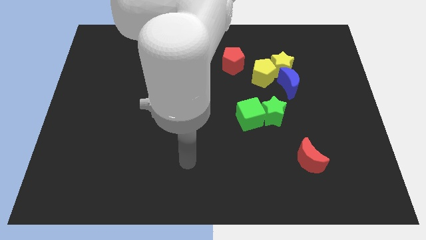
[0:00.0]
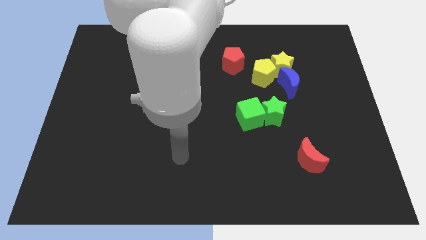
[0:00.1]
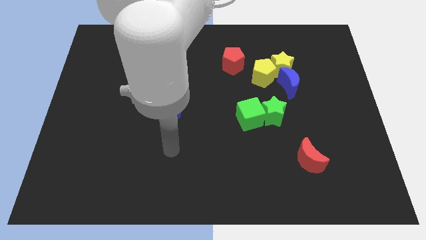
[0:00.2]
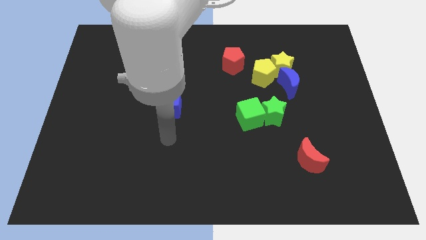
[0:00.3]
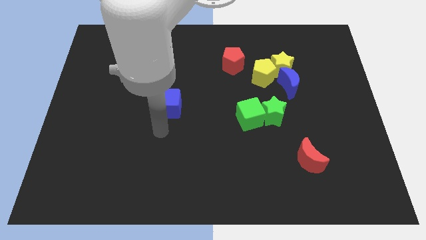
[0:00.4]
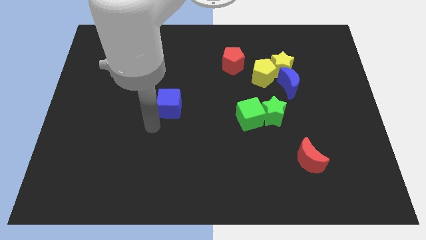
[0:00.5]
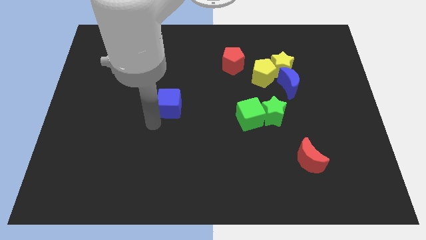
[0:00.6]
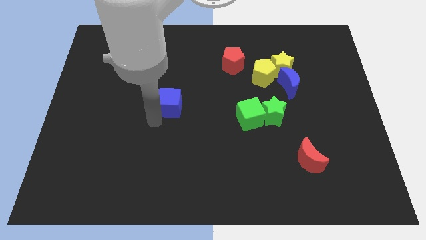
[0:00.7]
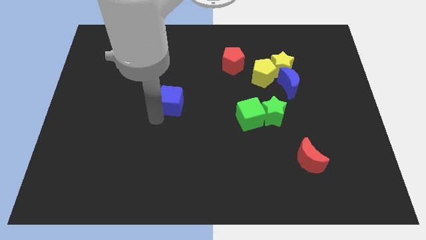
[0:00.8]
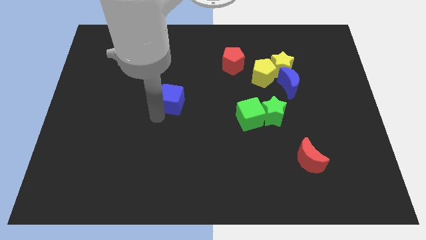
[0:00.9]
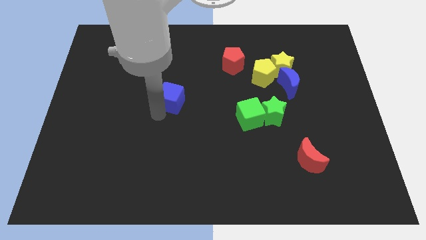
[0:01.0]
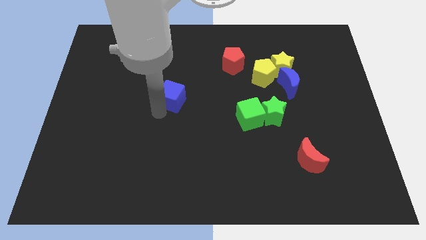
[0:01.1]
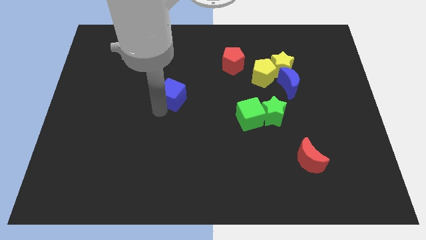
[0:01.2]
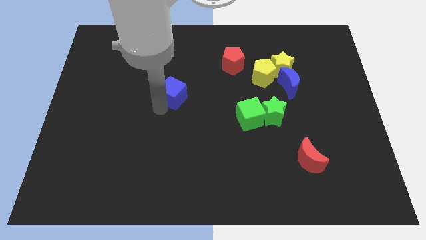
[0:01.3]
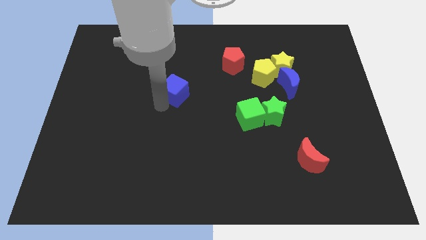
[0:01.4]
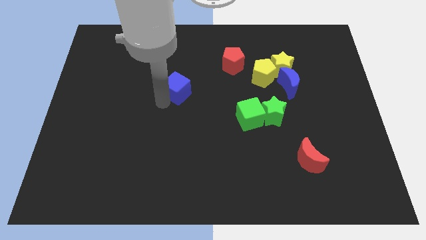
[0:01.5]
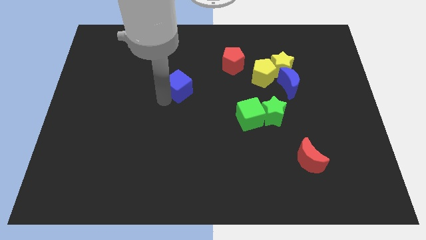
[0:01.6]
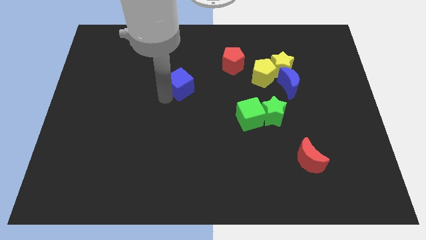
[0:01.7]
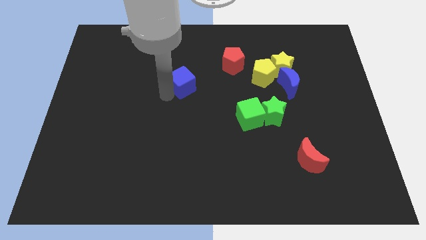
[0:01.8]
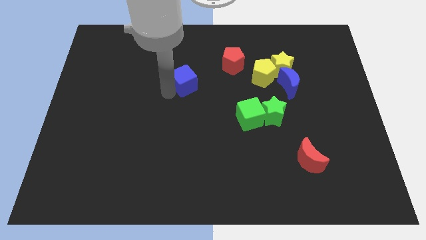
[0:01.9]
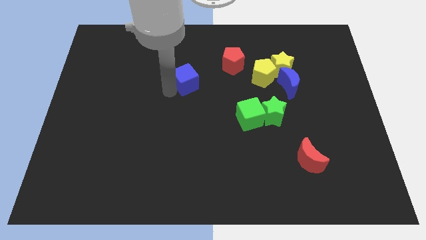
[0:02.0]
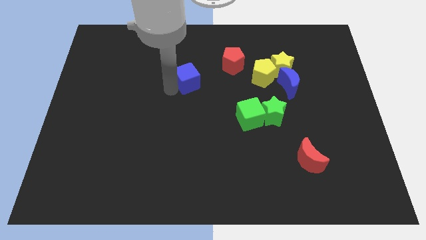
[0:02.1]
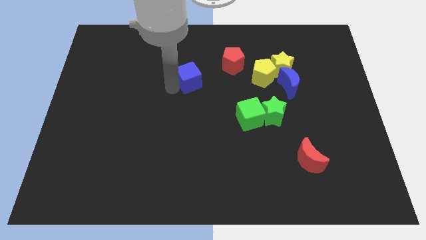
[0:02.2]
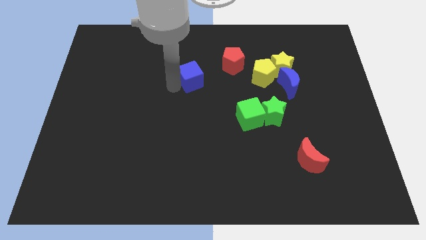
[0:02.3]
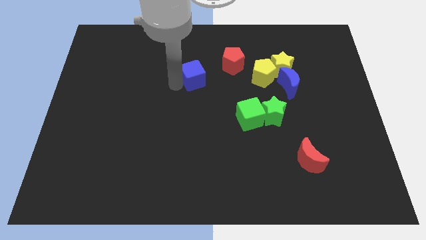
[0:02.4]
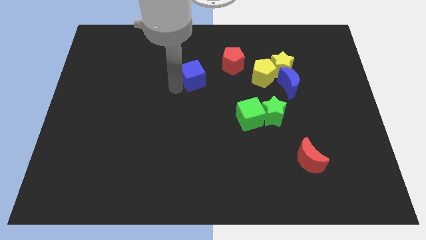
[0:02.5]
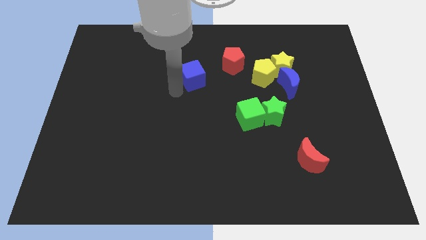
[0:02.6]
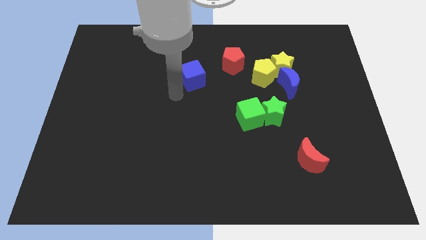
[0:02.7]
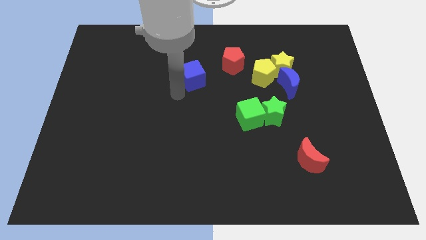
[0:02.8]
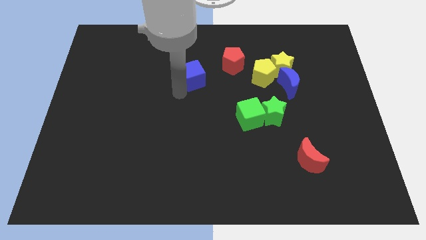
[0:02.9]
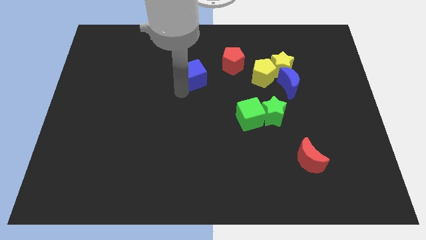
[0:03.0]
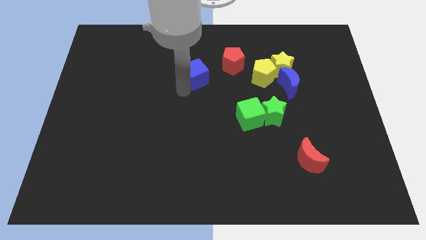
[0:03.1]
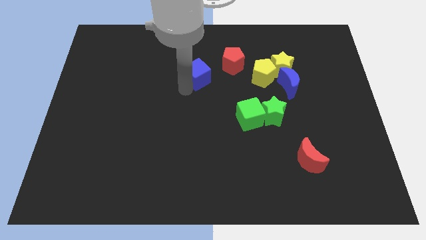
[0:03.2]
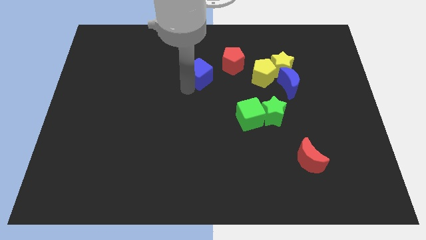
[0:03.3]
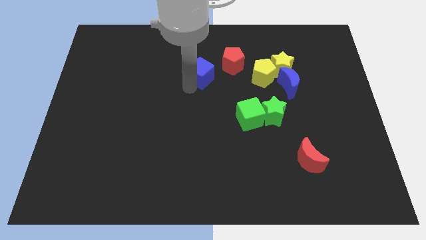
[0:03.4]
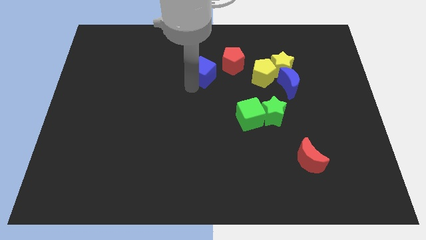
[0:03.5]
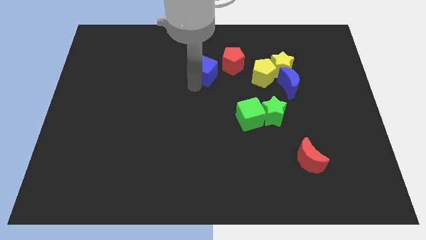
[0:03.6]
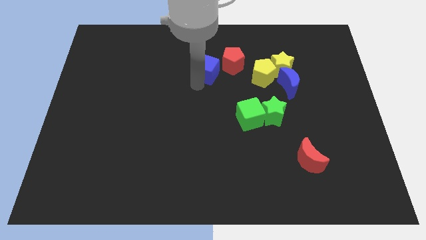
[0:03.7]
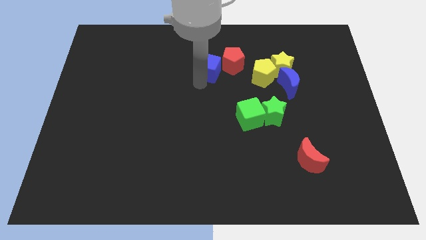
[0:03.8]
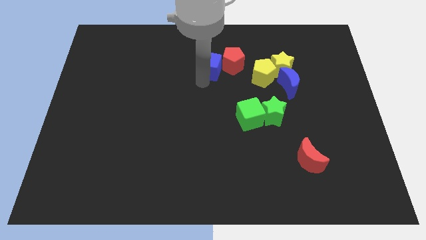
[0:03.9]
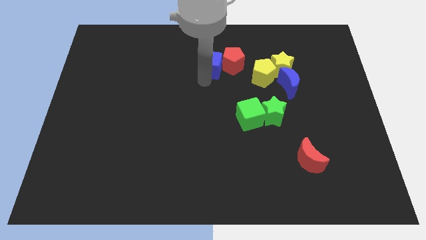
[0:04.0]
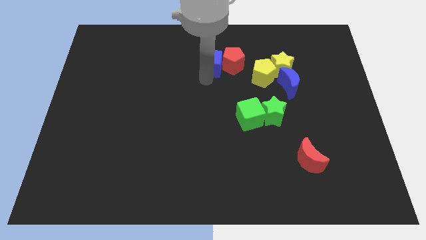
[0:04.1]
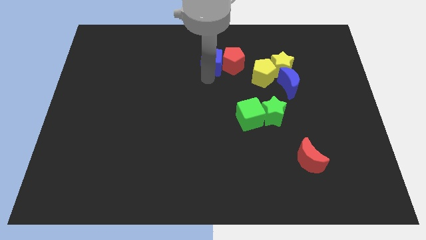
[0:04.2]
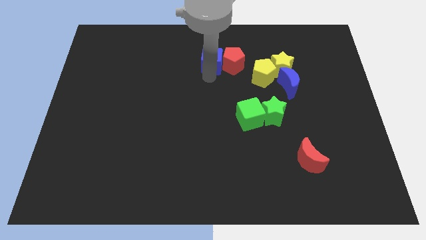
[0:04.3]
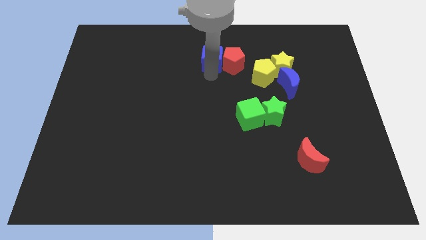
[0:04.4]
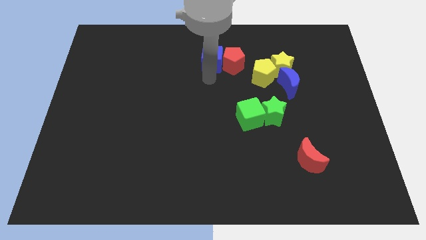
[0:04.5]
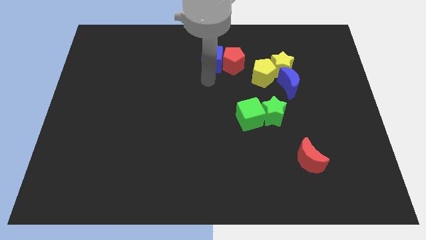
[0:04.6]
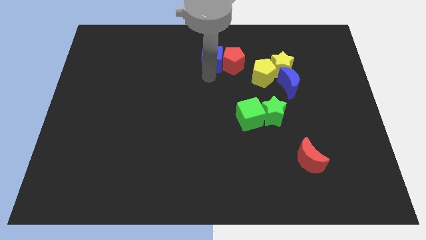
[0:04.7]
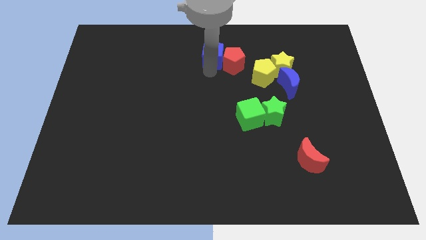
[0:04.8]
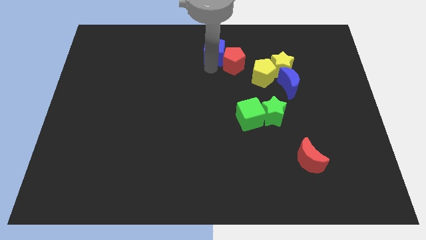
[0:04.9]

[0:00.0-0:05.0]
push the blue cube to the towards your base
